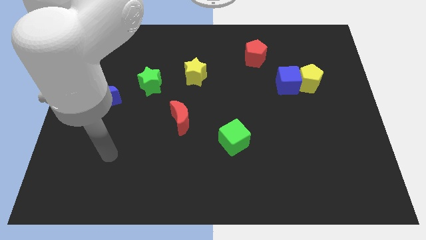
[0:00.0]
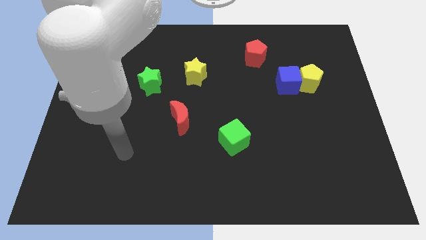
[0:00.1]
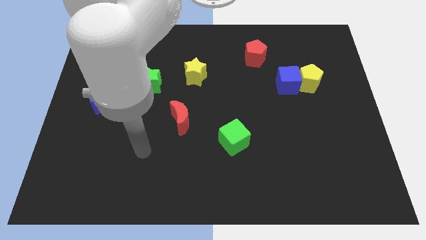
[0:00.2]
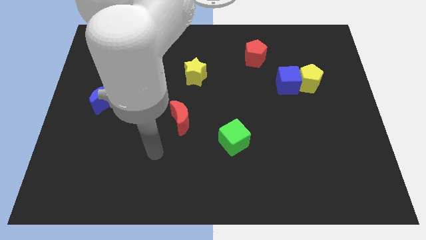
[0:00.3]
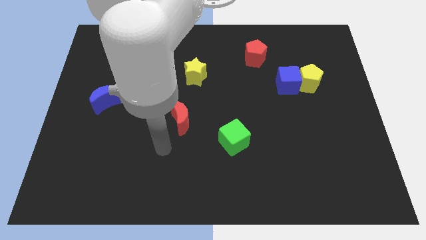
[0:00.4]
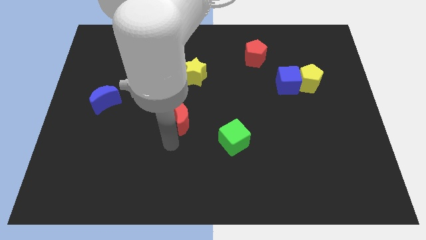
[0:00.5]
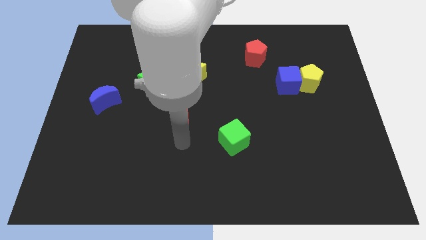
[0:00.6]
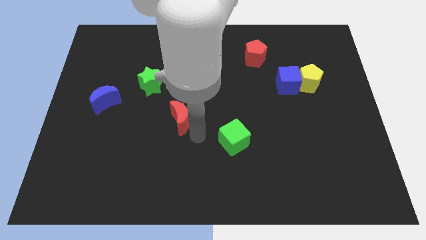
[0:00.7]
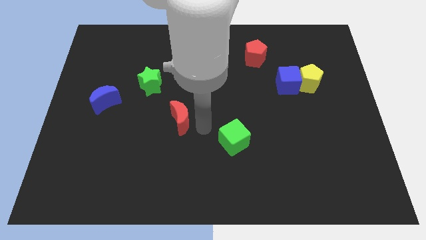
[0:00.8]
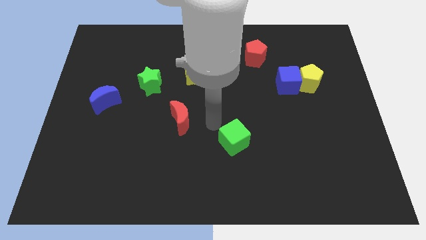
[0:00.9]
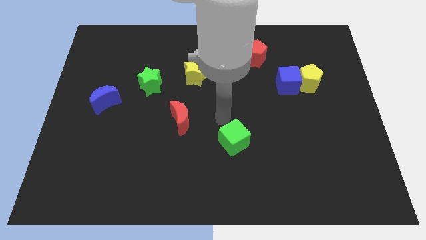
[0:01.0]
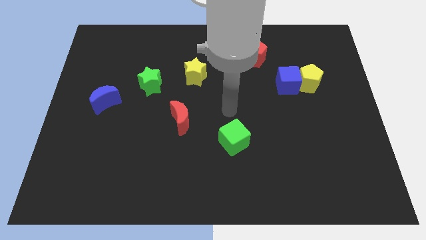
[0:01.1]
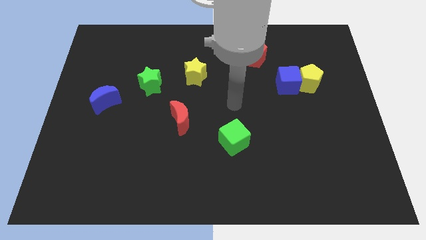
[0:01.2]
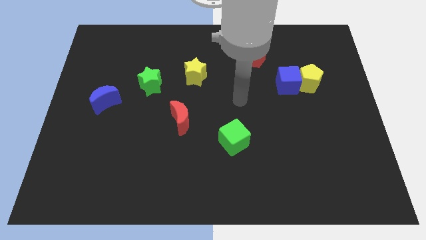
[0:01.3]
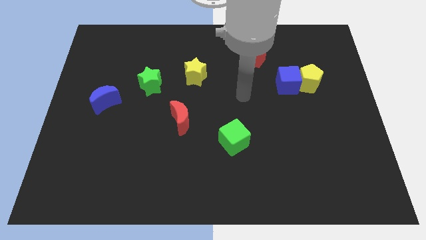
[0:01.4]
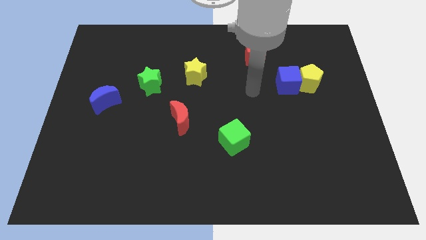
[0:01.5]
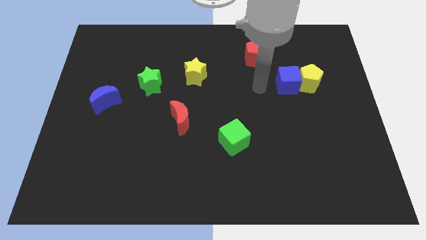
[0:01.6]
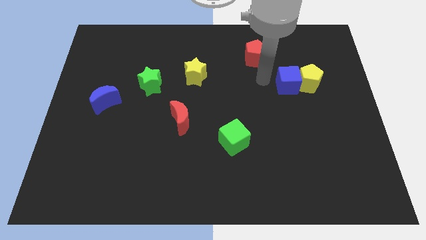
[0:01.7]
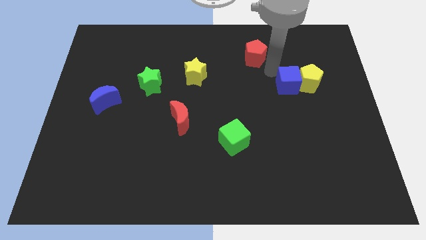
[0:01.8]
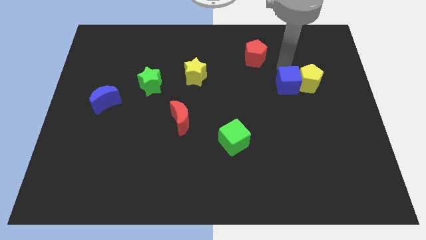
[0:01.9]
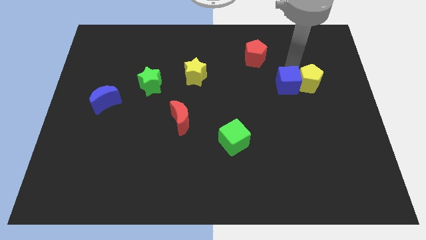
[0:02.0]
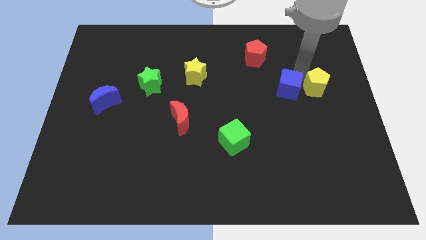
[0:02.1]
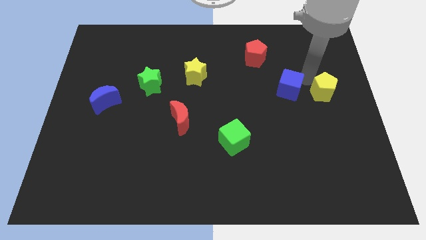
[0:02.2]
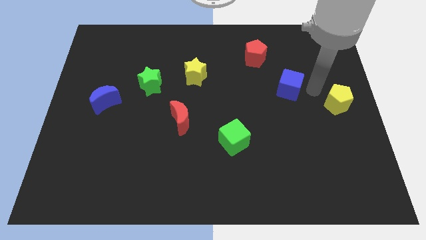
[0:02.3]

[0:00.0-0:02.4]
move the blue cube away from the yellow pentagon

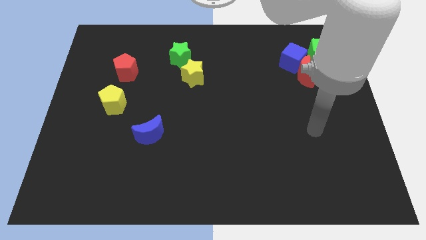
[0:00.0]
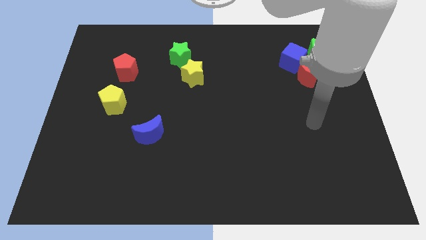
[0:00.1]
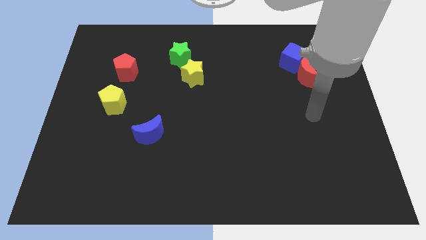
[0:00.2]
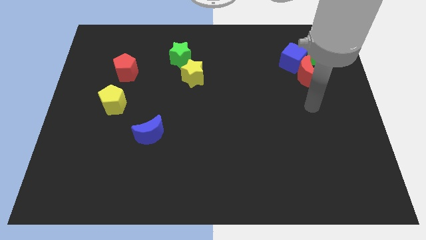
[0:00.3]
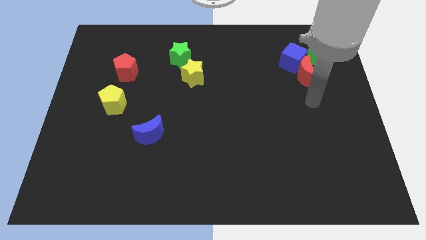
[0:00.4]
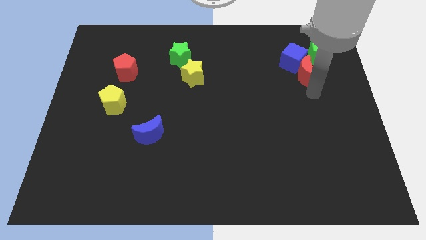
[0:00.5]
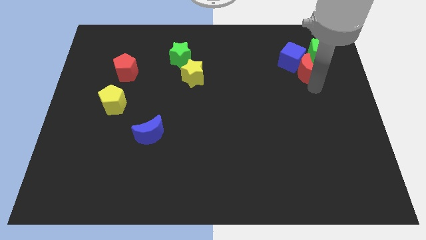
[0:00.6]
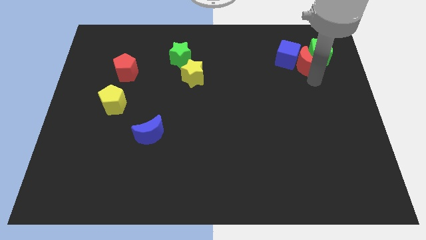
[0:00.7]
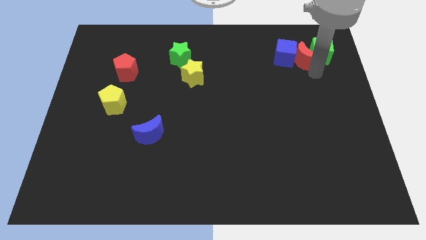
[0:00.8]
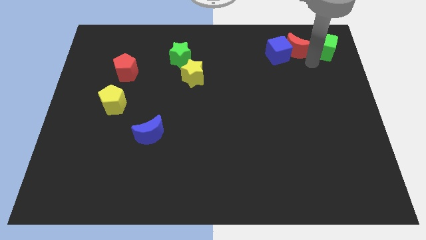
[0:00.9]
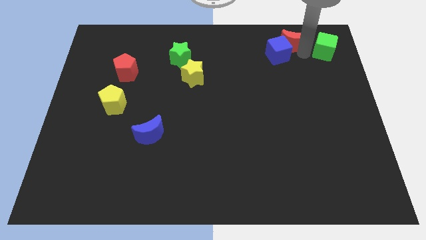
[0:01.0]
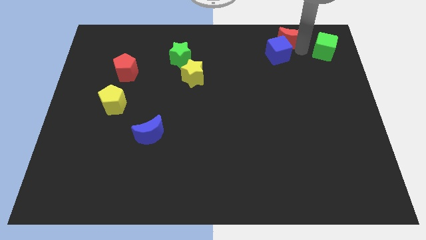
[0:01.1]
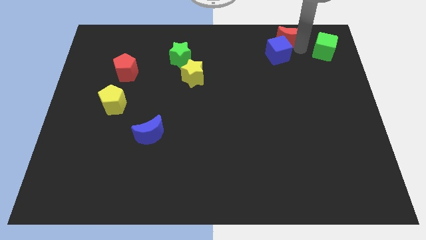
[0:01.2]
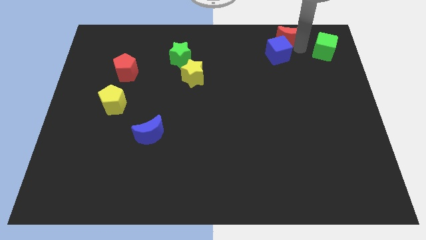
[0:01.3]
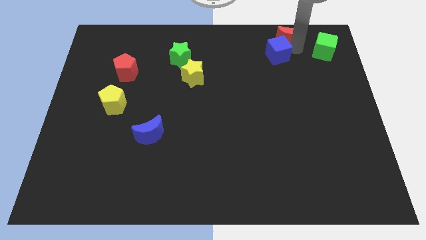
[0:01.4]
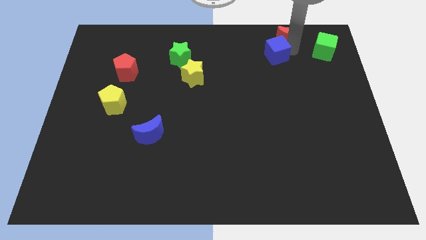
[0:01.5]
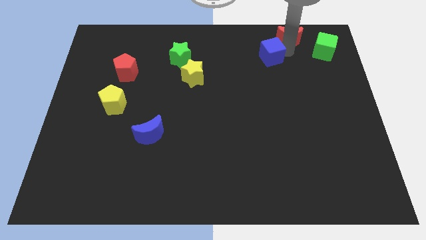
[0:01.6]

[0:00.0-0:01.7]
separate the blue cube from the red moon and green cube

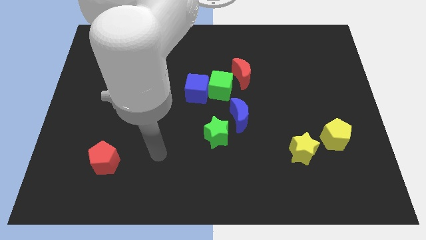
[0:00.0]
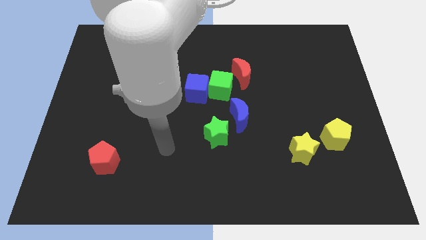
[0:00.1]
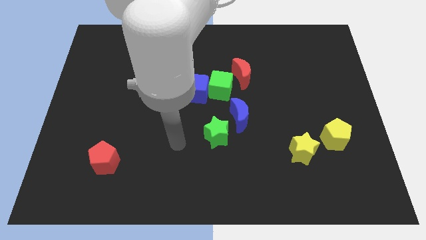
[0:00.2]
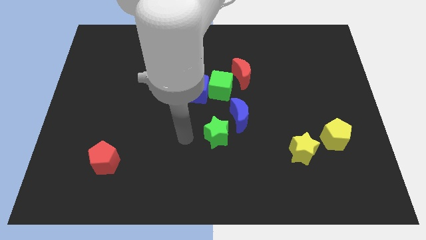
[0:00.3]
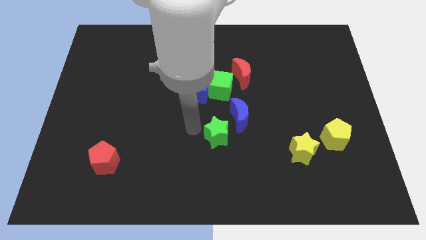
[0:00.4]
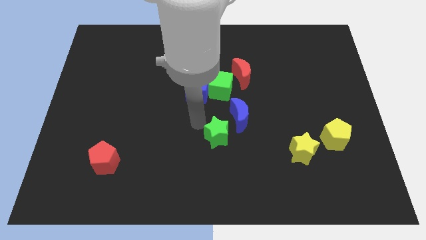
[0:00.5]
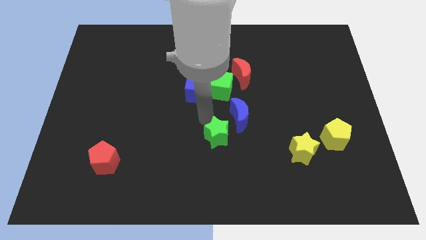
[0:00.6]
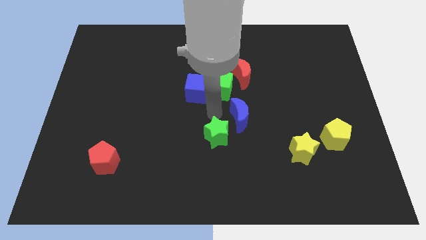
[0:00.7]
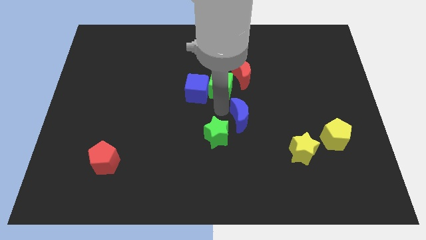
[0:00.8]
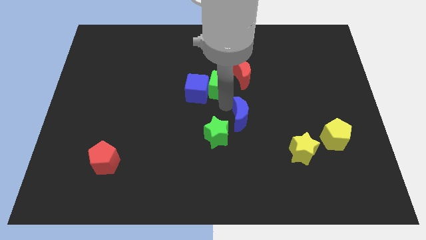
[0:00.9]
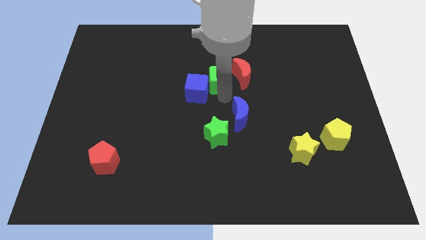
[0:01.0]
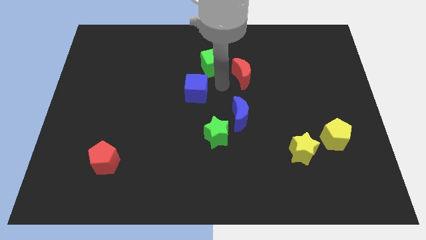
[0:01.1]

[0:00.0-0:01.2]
separate the blue cube from the green cube

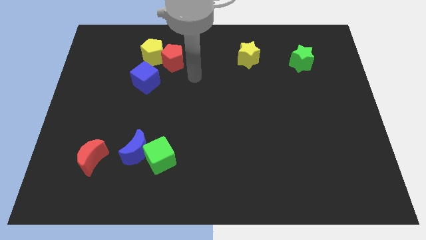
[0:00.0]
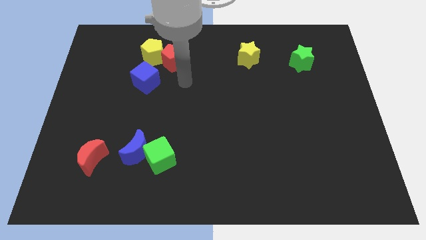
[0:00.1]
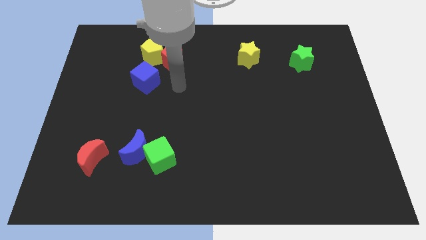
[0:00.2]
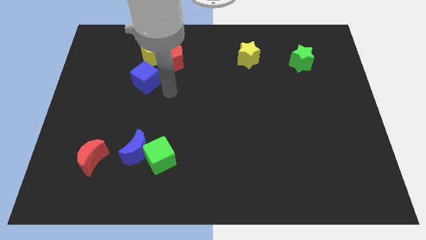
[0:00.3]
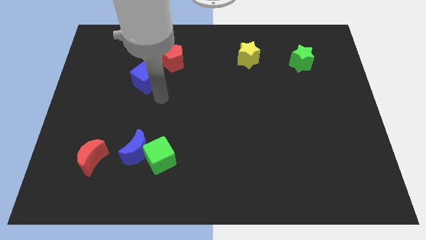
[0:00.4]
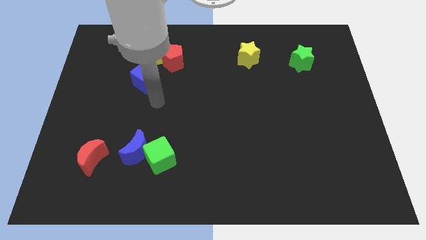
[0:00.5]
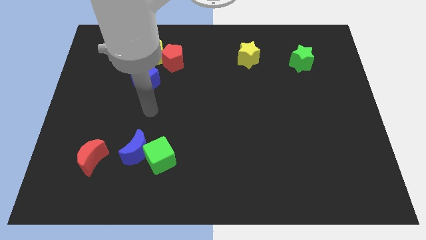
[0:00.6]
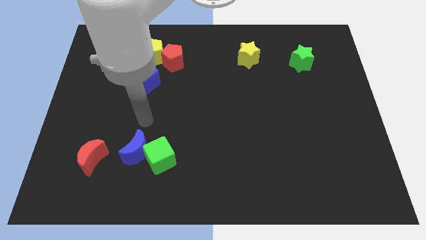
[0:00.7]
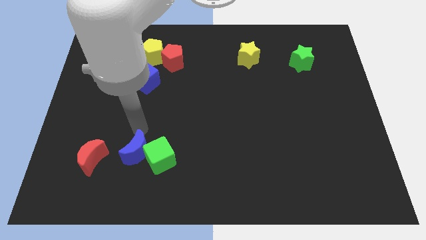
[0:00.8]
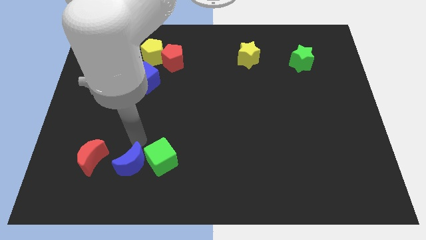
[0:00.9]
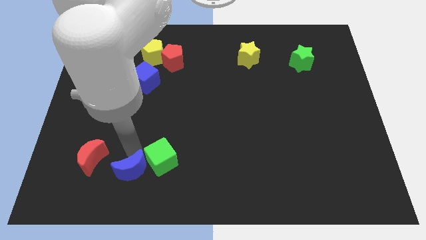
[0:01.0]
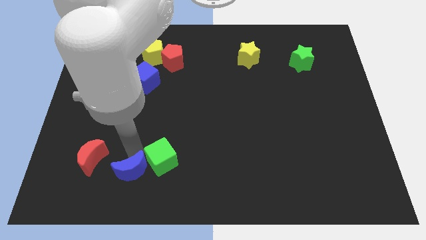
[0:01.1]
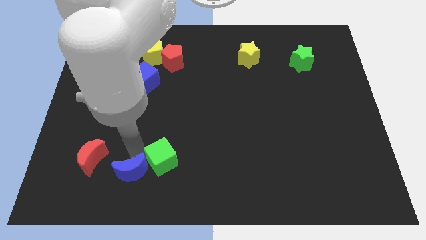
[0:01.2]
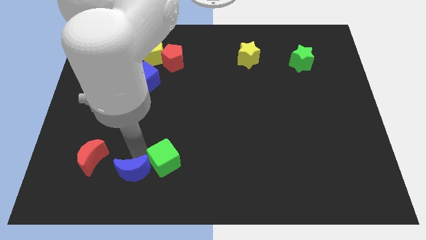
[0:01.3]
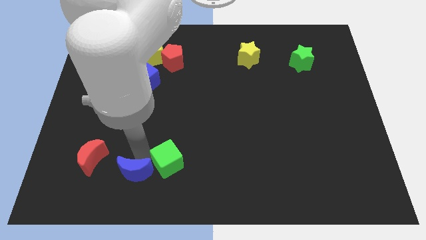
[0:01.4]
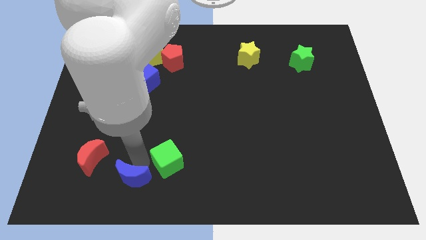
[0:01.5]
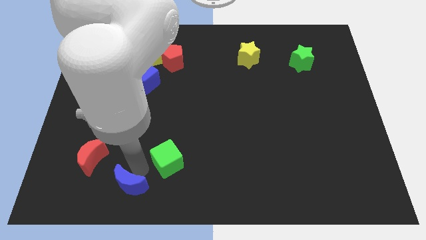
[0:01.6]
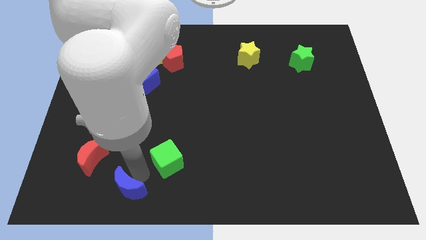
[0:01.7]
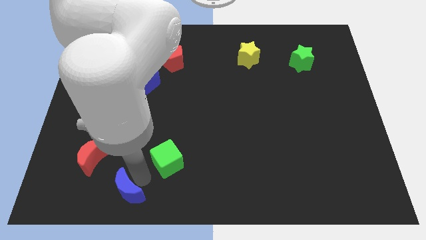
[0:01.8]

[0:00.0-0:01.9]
pull the green cube apart from the blue moon

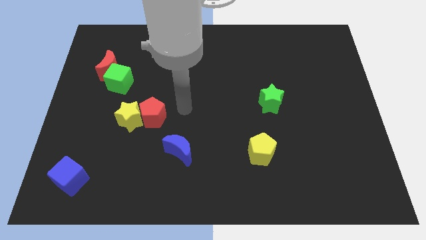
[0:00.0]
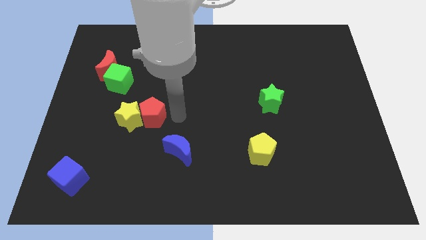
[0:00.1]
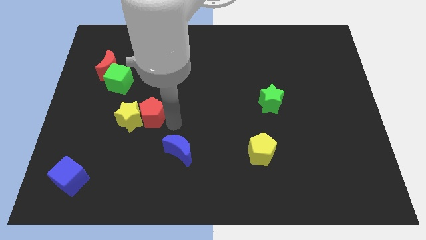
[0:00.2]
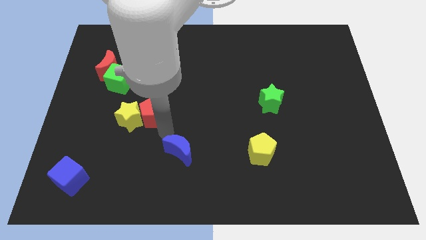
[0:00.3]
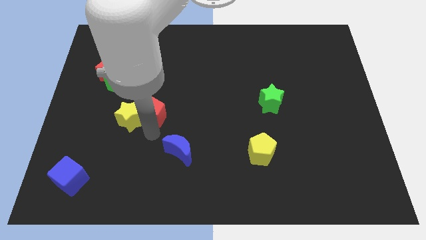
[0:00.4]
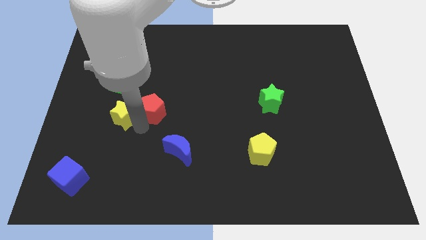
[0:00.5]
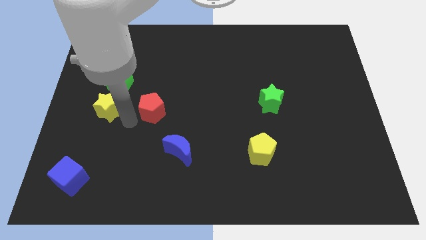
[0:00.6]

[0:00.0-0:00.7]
move the red pentagon away from the yellow star

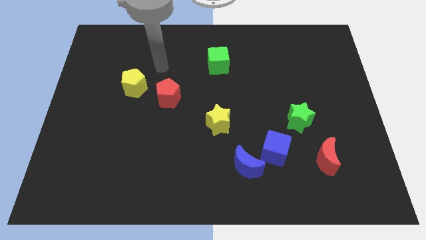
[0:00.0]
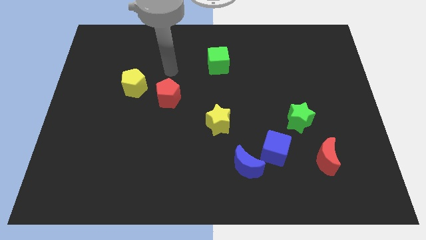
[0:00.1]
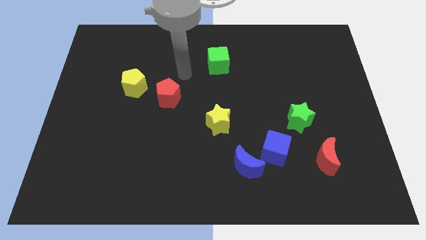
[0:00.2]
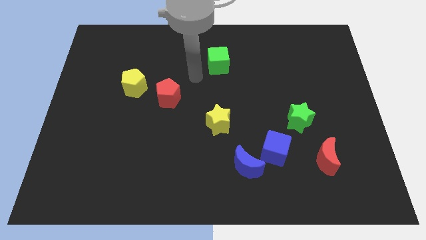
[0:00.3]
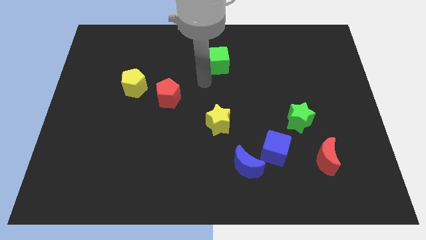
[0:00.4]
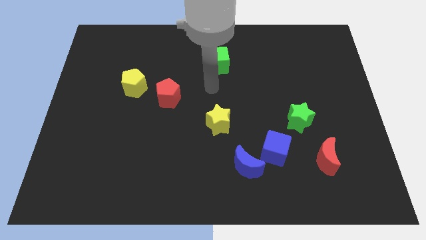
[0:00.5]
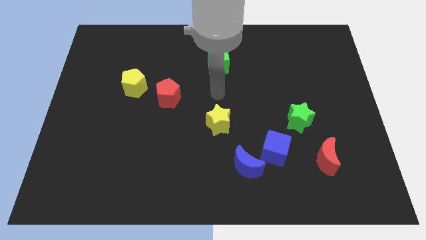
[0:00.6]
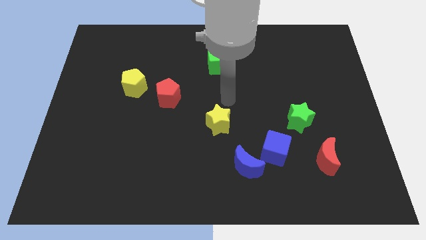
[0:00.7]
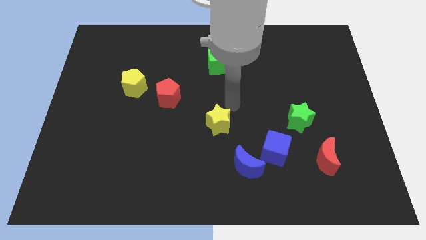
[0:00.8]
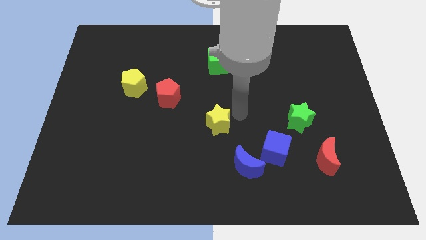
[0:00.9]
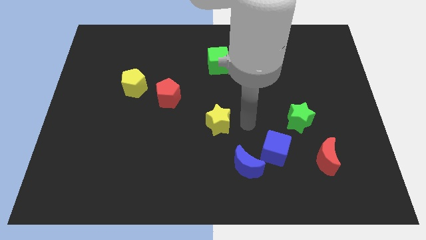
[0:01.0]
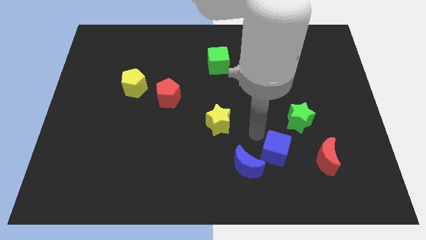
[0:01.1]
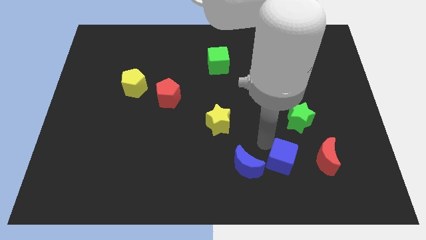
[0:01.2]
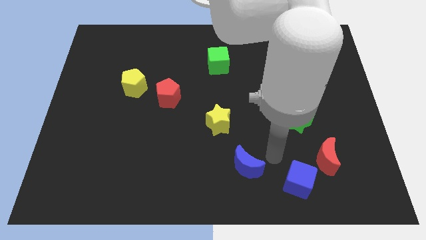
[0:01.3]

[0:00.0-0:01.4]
move the blue moon away from the blue cube
